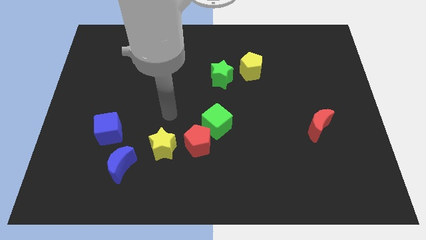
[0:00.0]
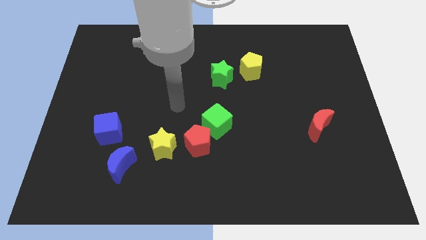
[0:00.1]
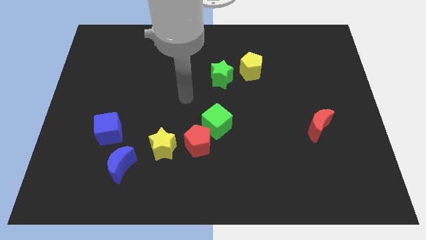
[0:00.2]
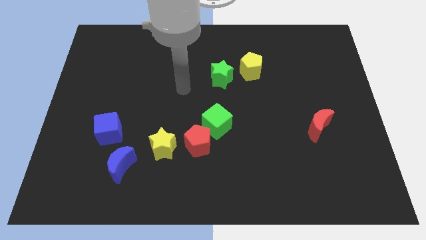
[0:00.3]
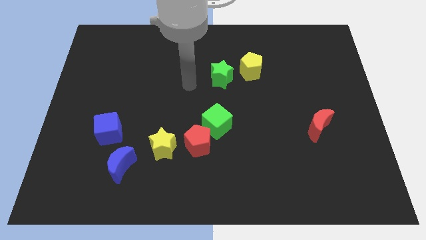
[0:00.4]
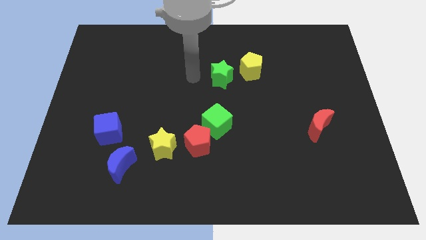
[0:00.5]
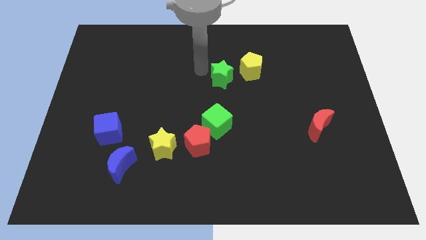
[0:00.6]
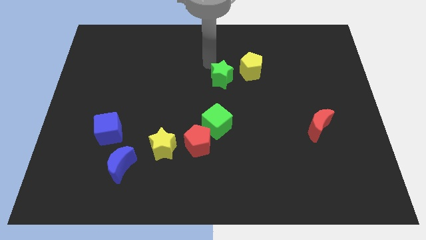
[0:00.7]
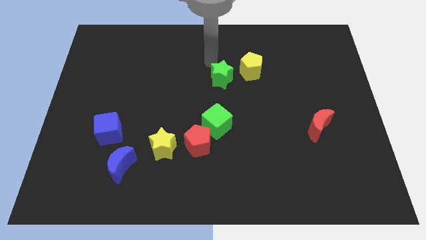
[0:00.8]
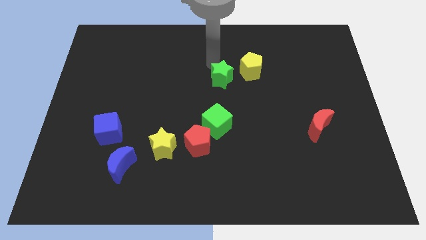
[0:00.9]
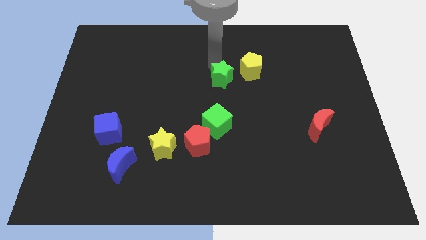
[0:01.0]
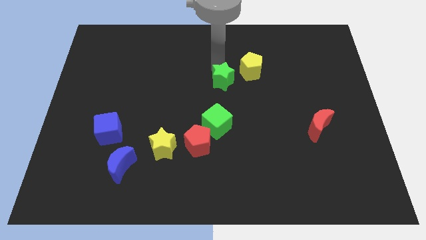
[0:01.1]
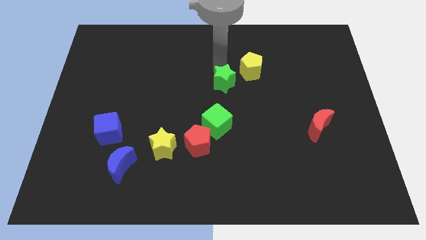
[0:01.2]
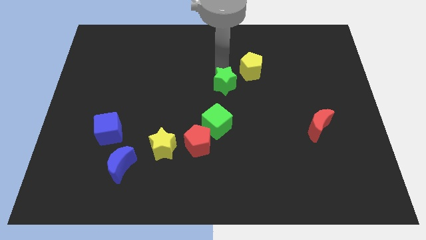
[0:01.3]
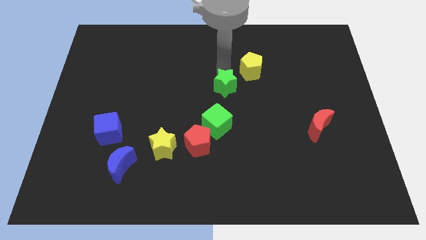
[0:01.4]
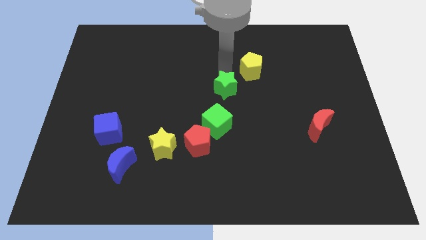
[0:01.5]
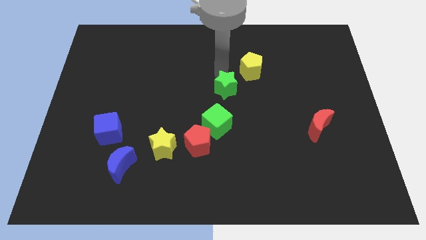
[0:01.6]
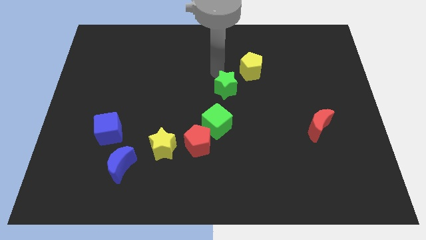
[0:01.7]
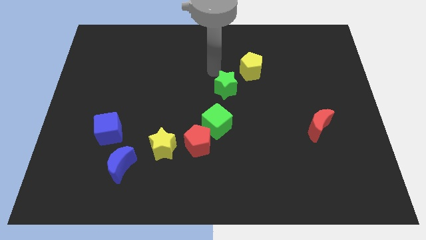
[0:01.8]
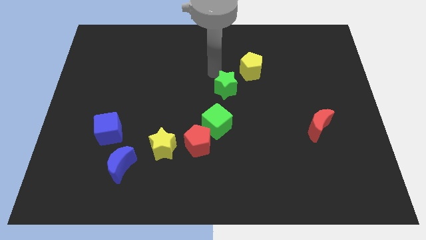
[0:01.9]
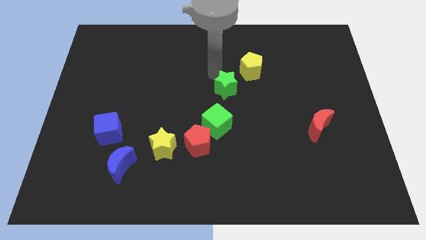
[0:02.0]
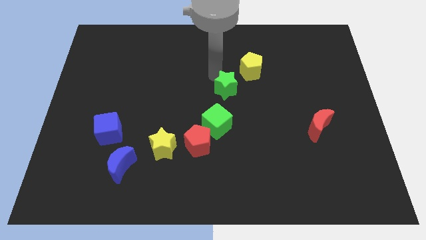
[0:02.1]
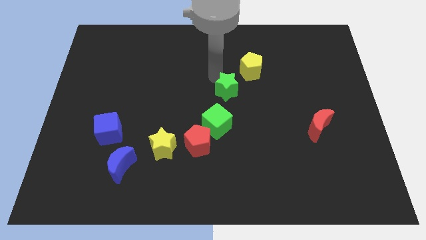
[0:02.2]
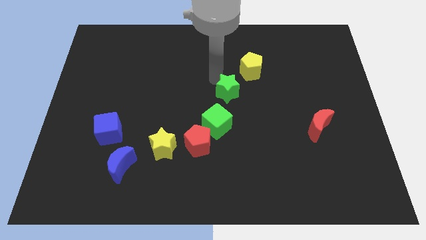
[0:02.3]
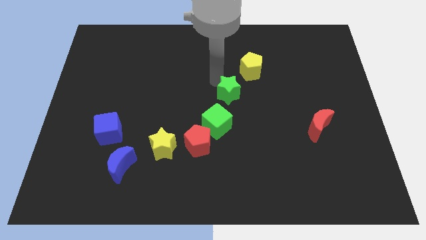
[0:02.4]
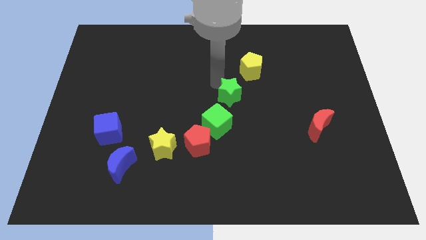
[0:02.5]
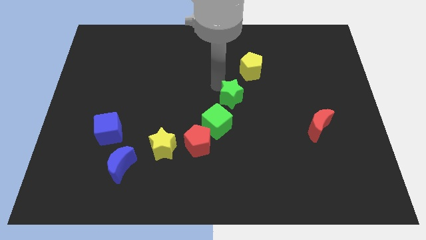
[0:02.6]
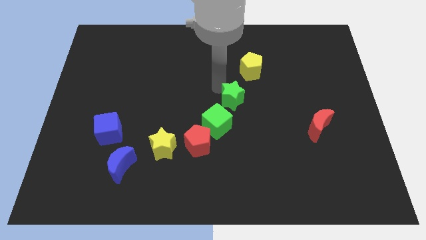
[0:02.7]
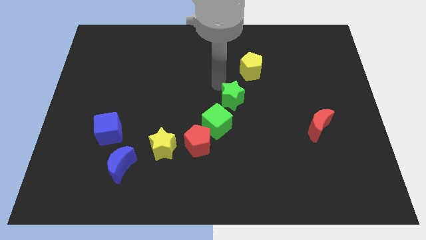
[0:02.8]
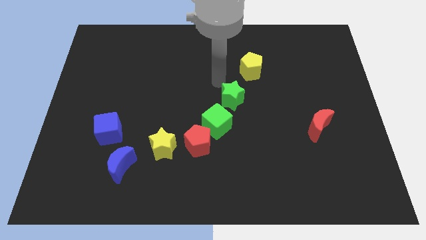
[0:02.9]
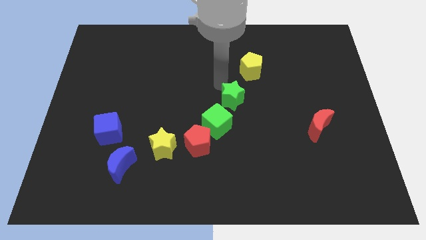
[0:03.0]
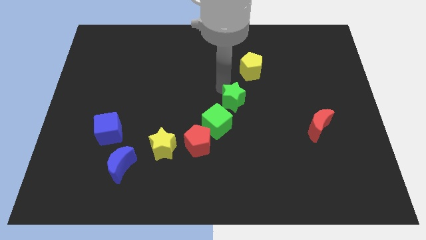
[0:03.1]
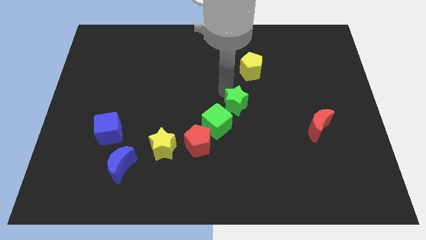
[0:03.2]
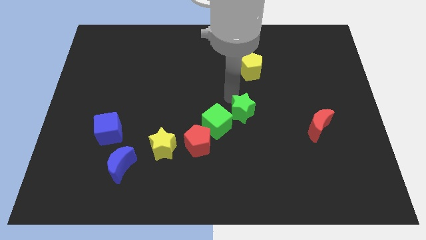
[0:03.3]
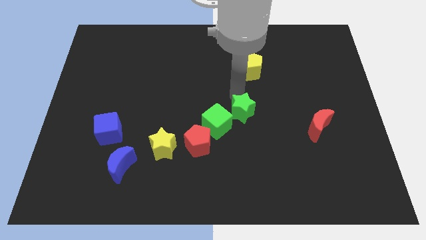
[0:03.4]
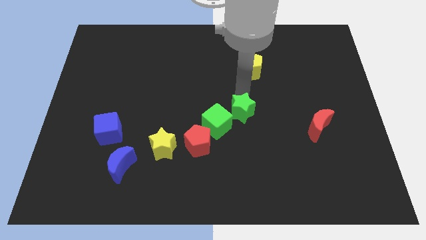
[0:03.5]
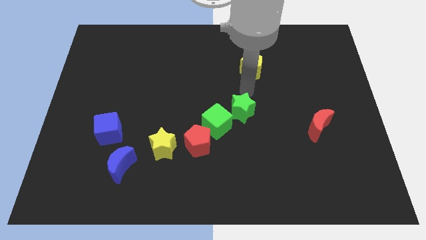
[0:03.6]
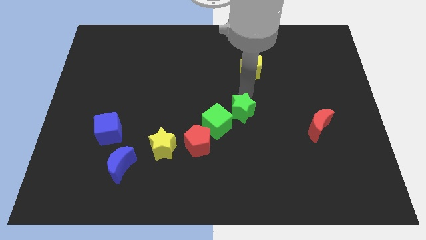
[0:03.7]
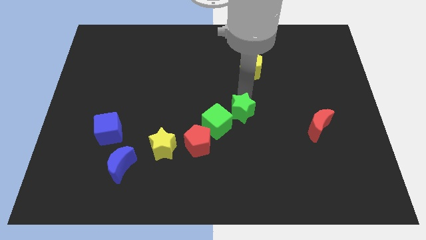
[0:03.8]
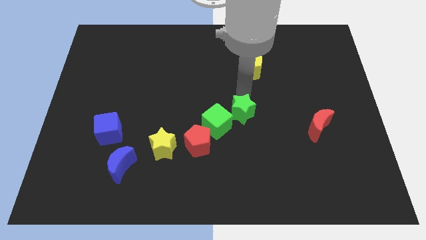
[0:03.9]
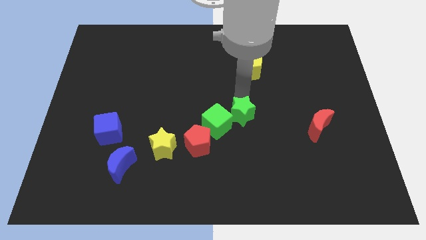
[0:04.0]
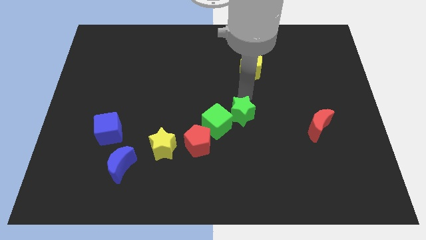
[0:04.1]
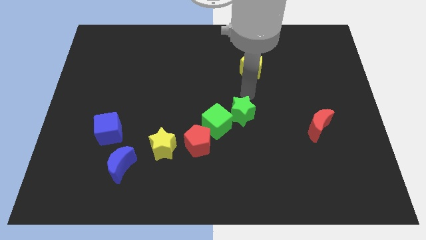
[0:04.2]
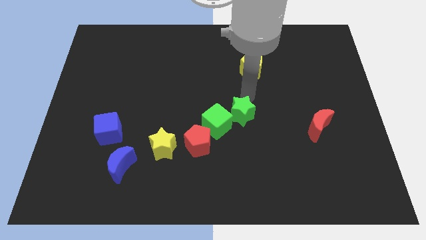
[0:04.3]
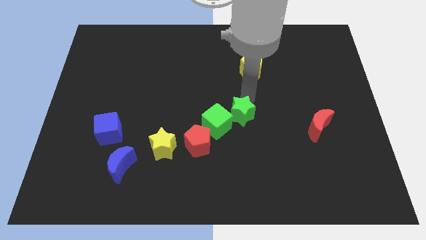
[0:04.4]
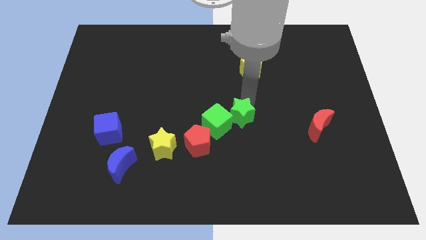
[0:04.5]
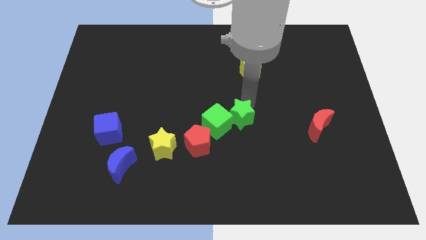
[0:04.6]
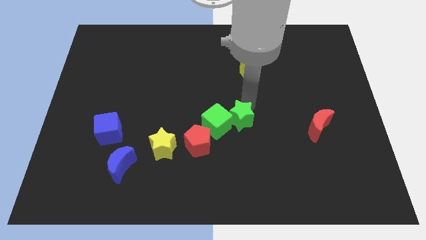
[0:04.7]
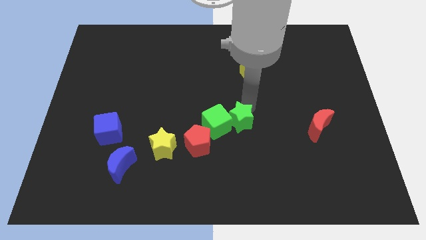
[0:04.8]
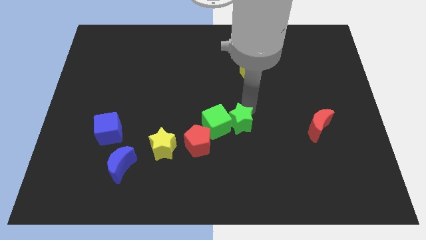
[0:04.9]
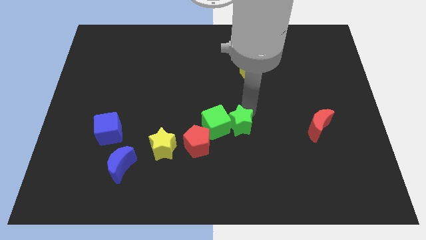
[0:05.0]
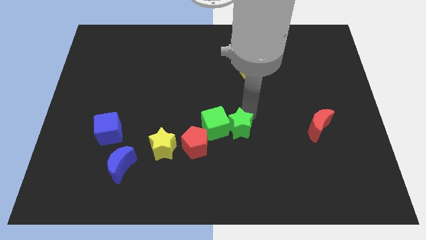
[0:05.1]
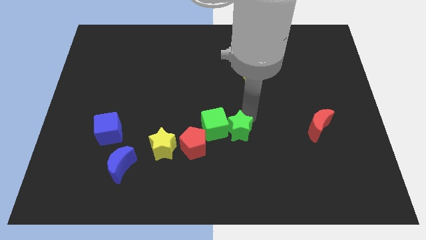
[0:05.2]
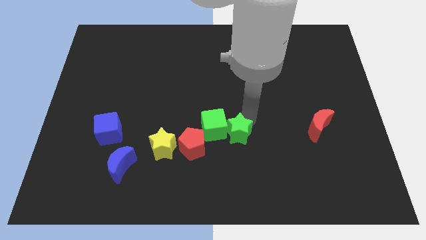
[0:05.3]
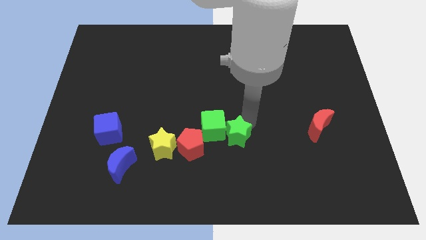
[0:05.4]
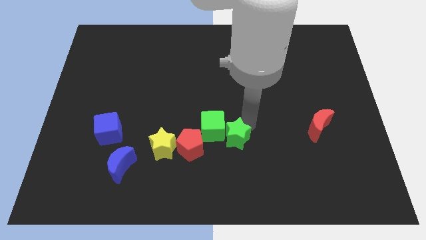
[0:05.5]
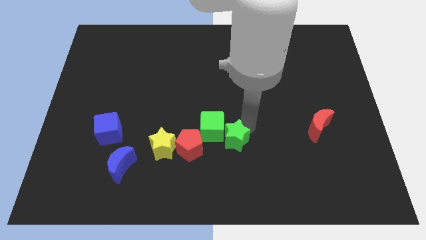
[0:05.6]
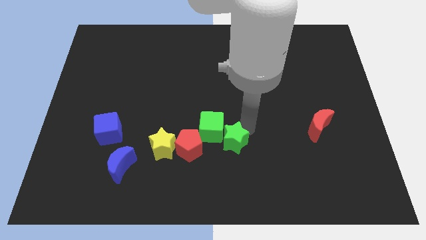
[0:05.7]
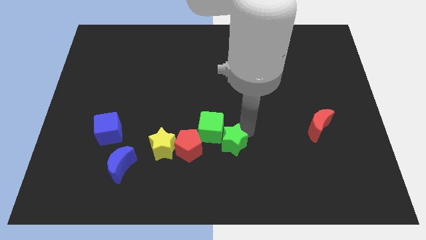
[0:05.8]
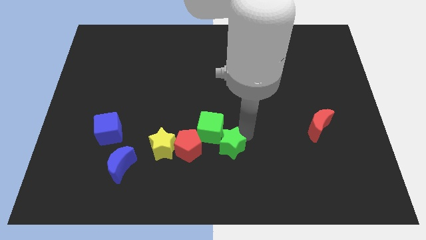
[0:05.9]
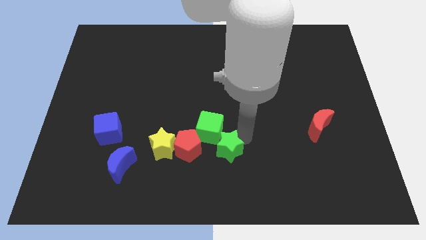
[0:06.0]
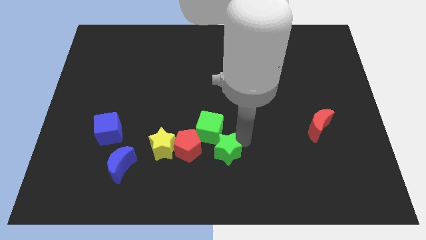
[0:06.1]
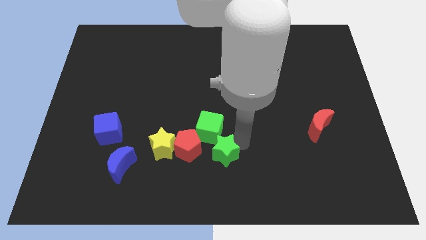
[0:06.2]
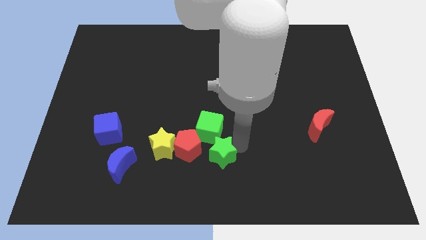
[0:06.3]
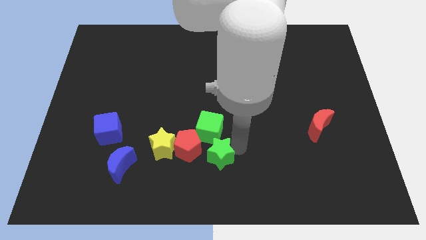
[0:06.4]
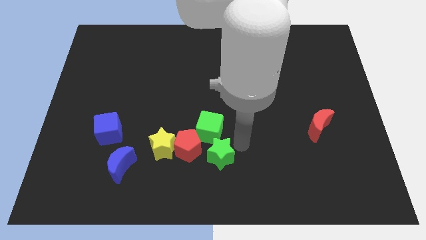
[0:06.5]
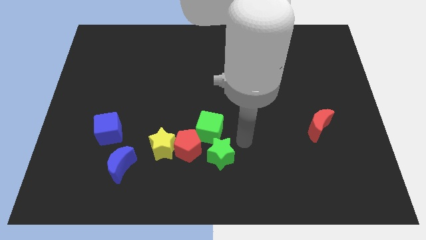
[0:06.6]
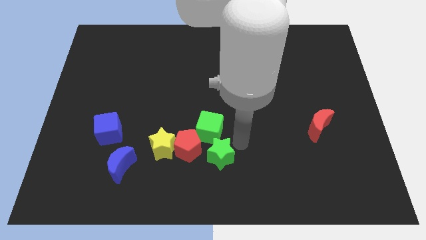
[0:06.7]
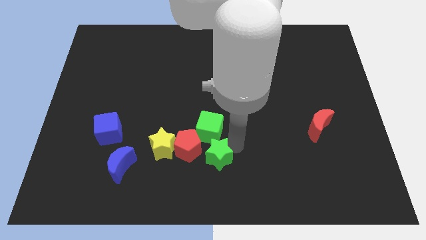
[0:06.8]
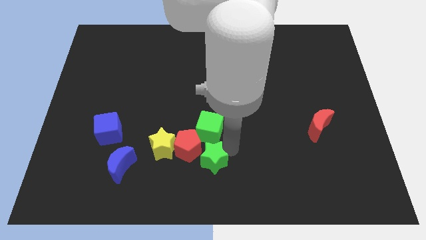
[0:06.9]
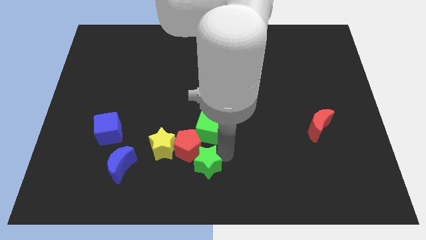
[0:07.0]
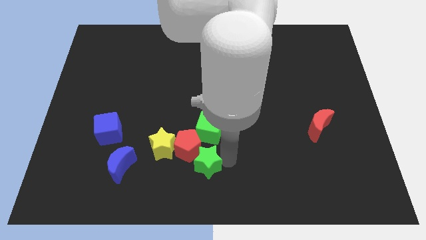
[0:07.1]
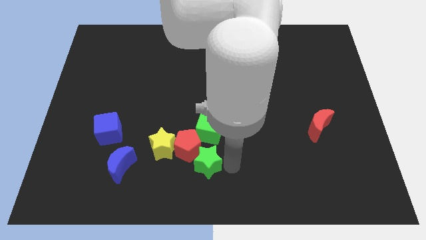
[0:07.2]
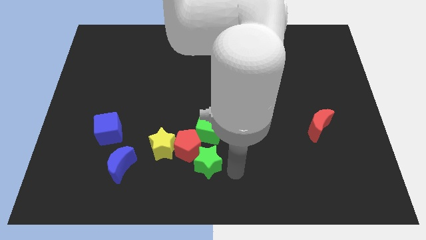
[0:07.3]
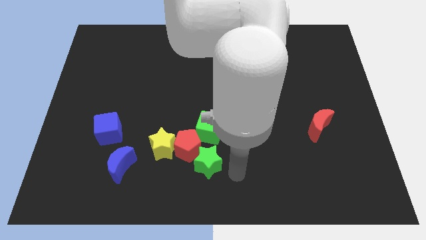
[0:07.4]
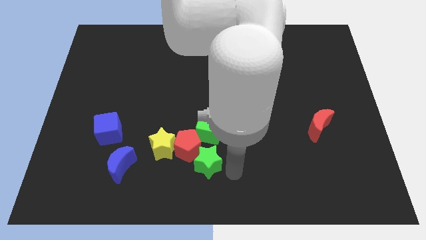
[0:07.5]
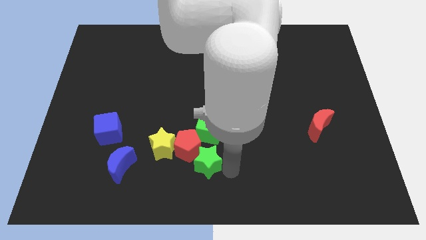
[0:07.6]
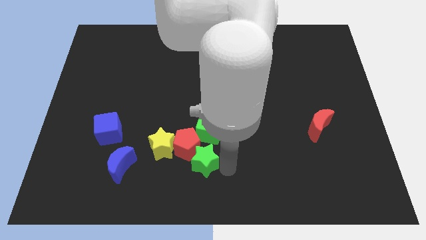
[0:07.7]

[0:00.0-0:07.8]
push the green star to the bottom left side of the green cube
